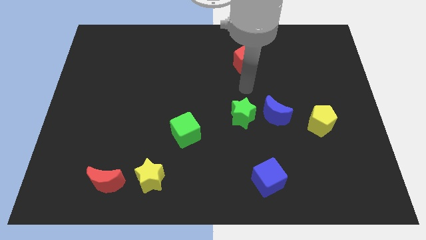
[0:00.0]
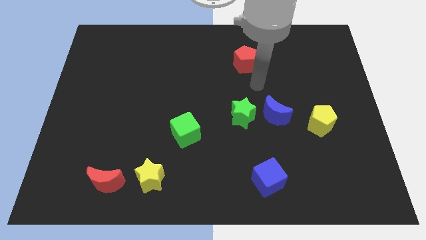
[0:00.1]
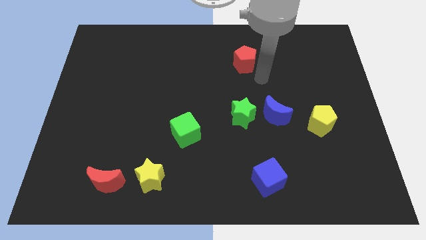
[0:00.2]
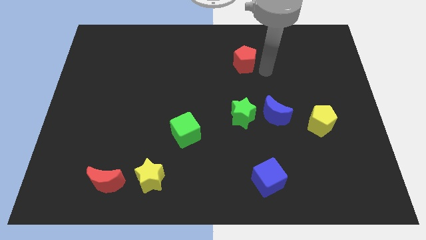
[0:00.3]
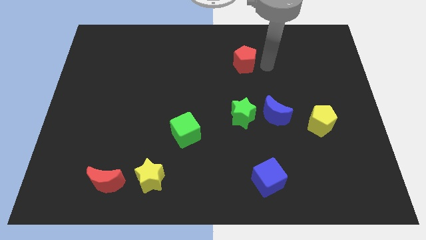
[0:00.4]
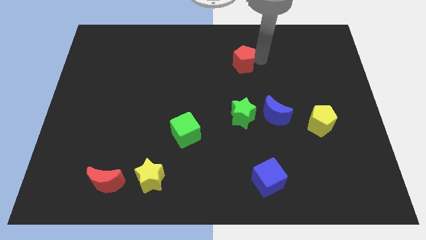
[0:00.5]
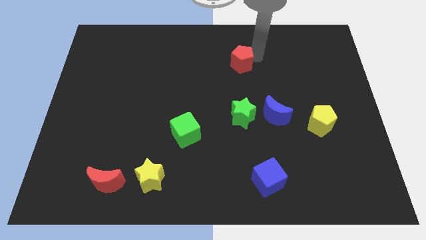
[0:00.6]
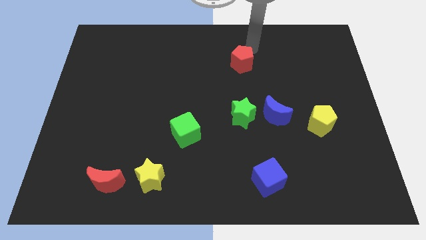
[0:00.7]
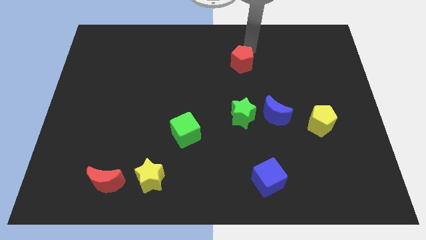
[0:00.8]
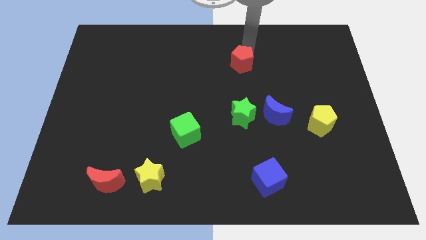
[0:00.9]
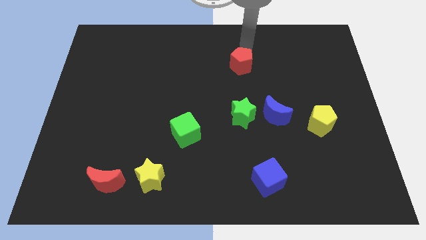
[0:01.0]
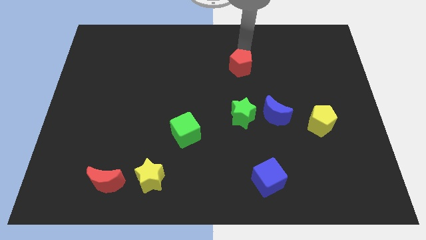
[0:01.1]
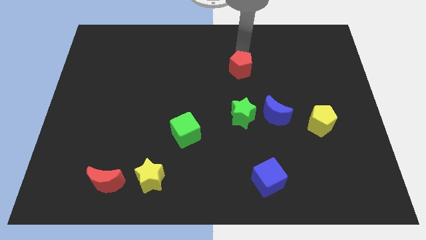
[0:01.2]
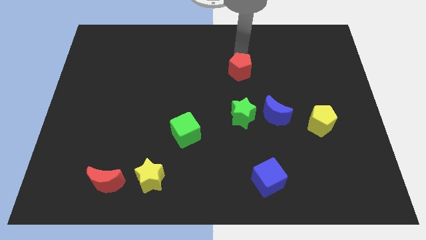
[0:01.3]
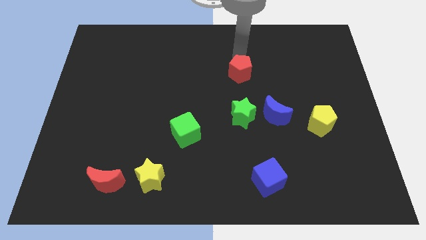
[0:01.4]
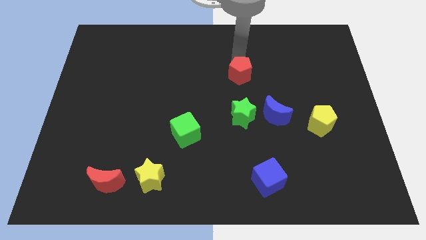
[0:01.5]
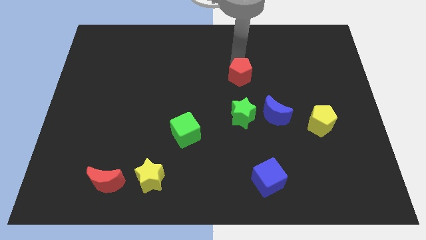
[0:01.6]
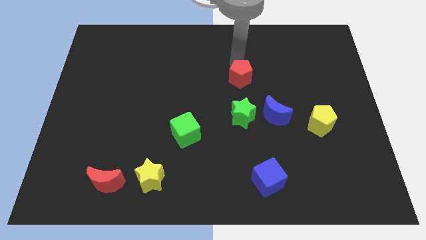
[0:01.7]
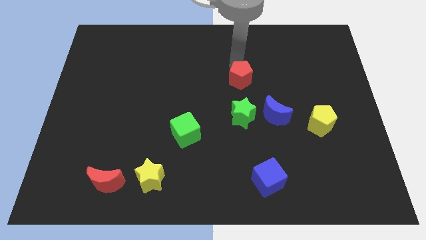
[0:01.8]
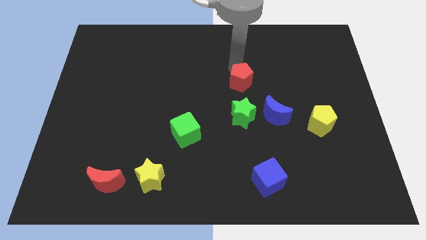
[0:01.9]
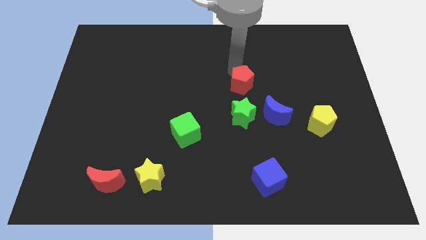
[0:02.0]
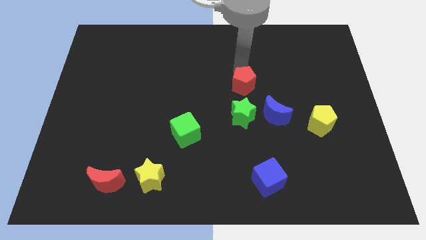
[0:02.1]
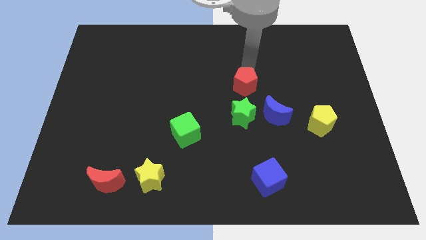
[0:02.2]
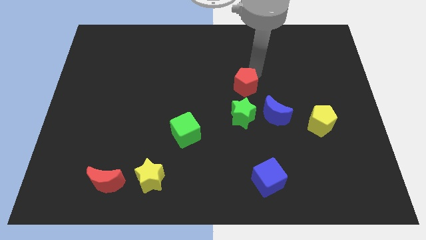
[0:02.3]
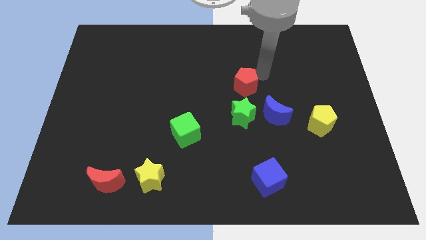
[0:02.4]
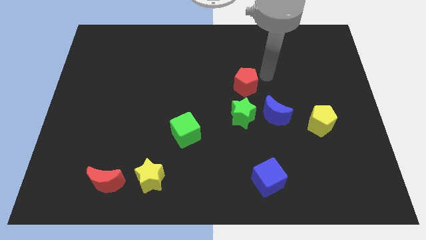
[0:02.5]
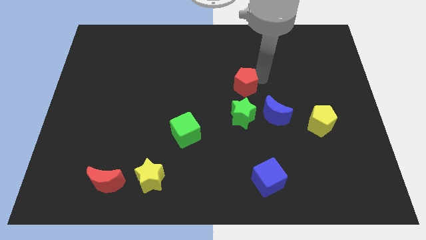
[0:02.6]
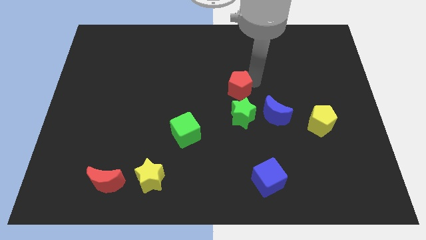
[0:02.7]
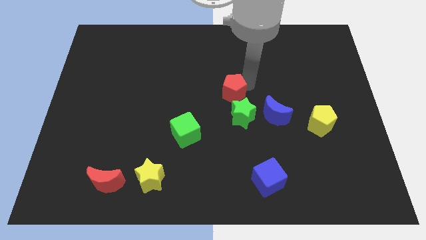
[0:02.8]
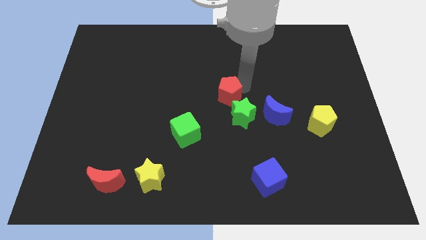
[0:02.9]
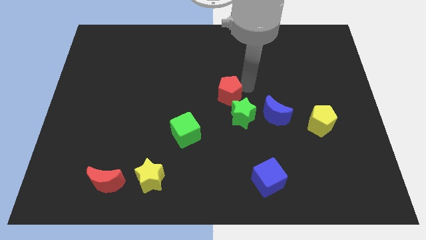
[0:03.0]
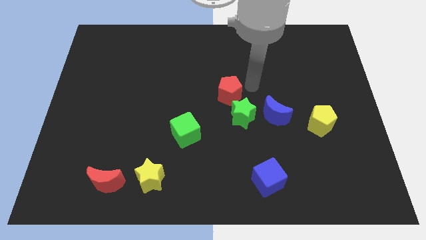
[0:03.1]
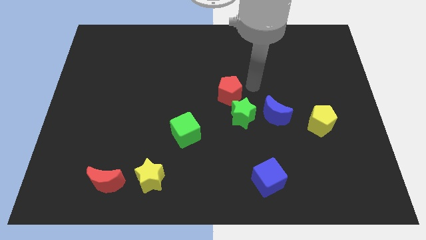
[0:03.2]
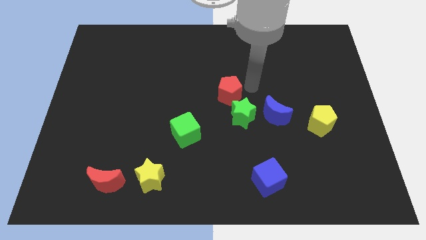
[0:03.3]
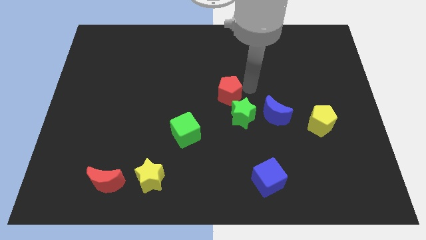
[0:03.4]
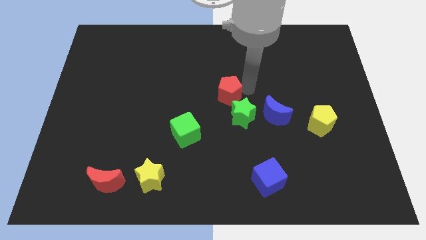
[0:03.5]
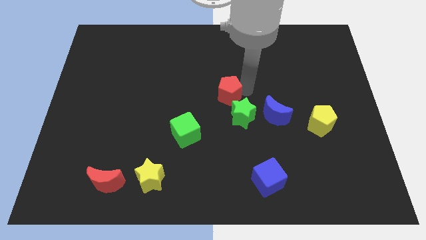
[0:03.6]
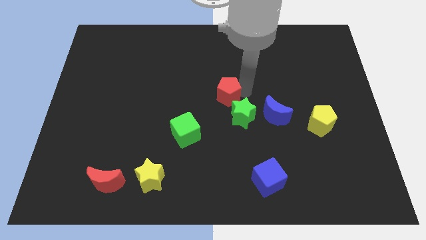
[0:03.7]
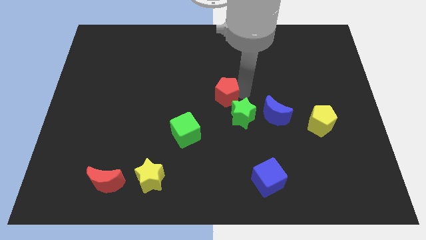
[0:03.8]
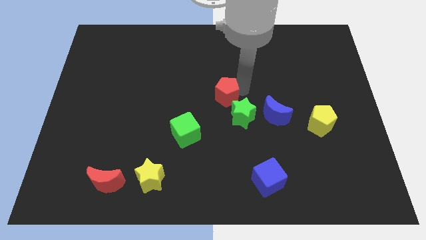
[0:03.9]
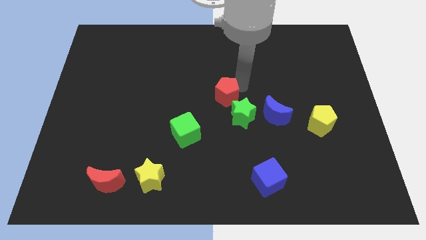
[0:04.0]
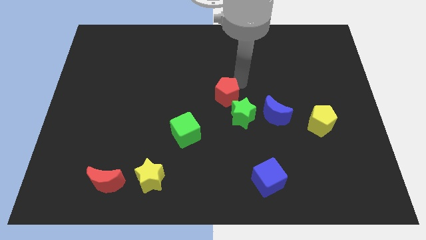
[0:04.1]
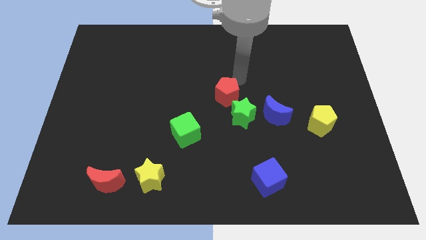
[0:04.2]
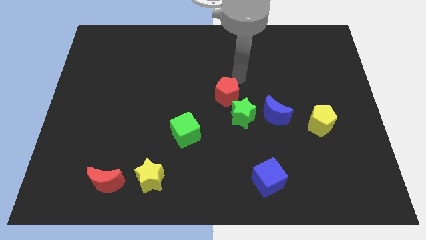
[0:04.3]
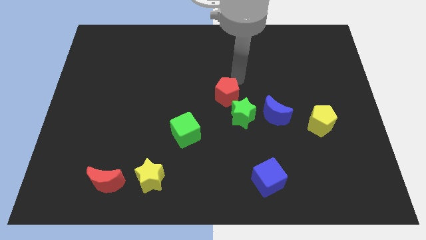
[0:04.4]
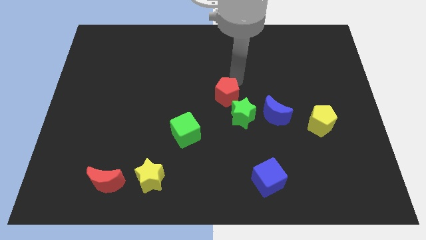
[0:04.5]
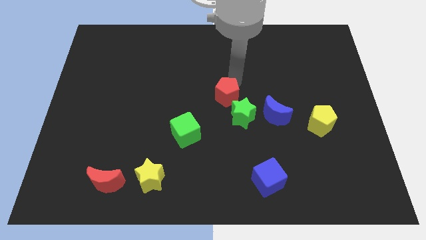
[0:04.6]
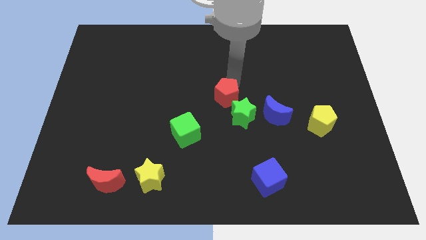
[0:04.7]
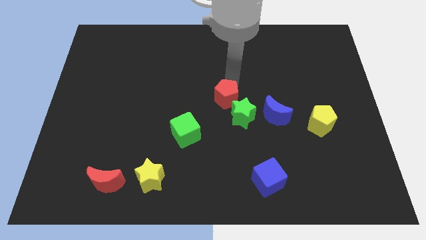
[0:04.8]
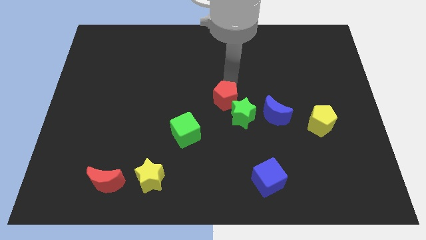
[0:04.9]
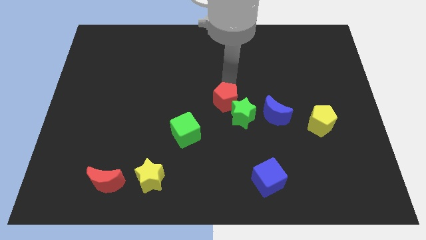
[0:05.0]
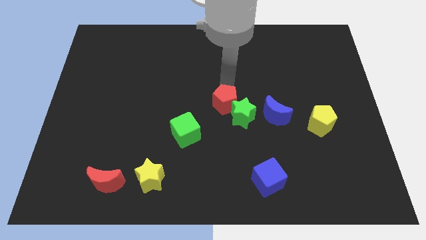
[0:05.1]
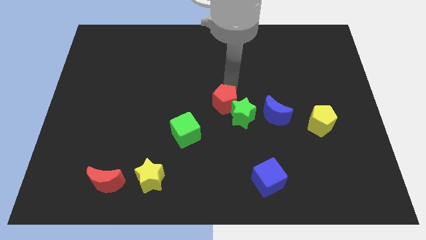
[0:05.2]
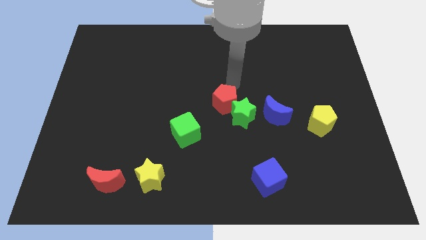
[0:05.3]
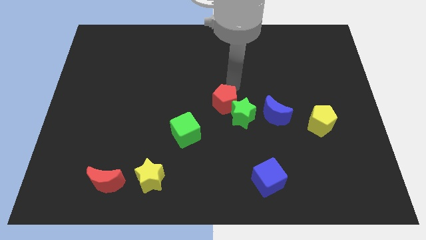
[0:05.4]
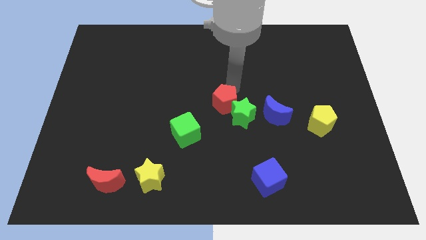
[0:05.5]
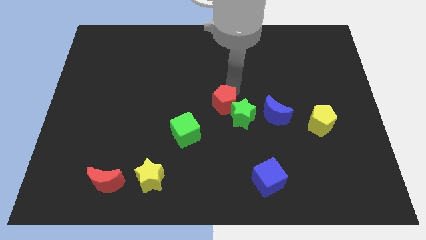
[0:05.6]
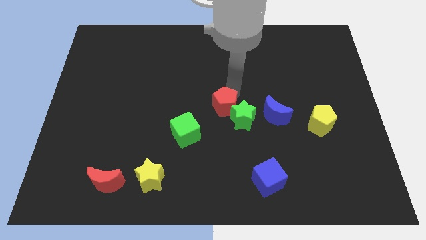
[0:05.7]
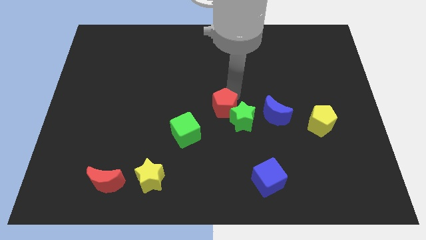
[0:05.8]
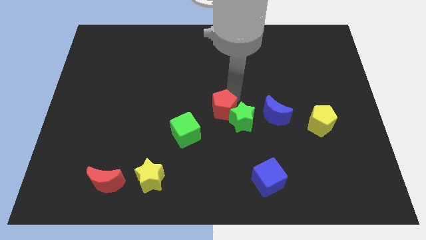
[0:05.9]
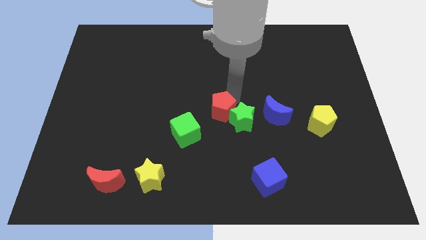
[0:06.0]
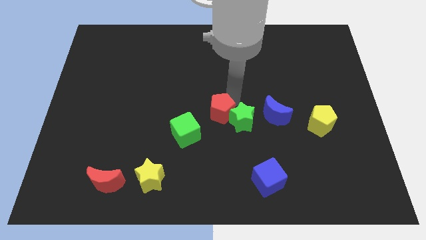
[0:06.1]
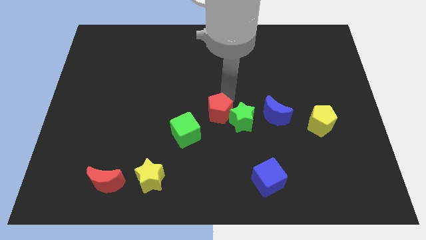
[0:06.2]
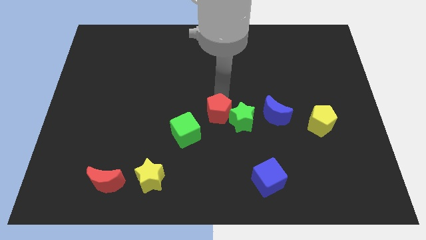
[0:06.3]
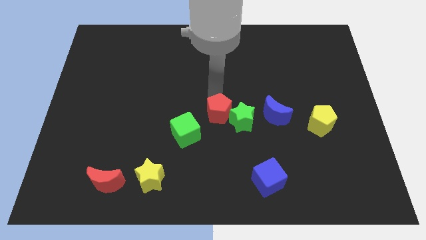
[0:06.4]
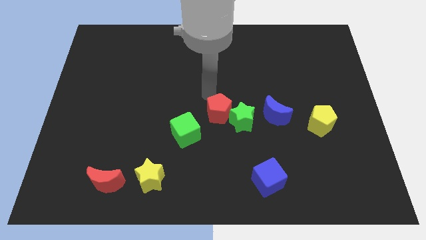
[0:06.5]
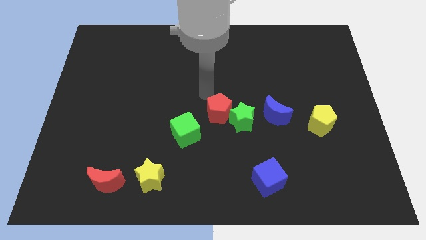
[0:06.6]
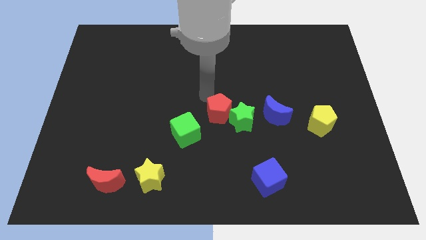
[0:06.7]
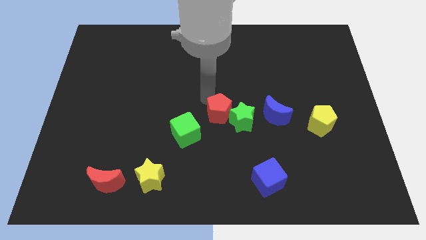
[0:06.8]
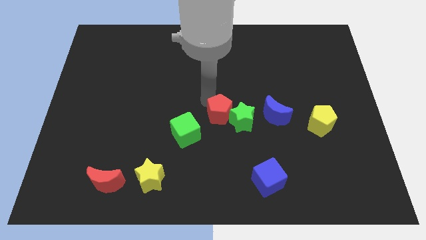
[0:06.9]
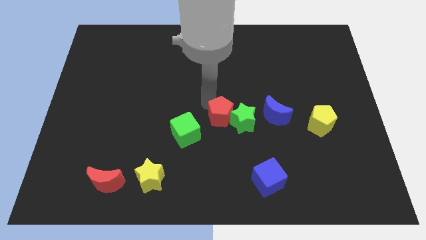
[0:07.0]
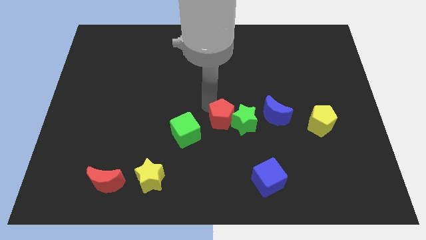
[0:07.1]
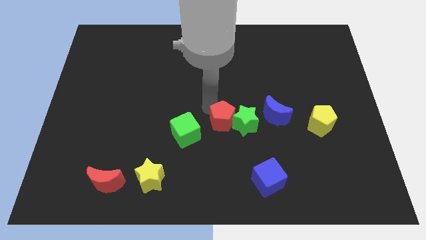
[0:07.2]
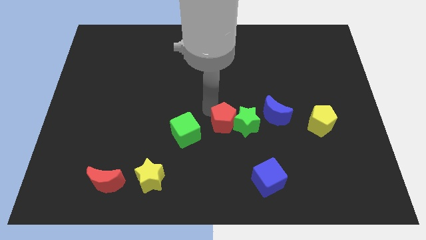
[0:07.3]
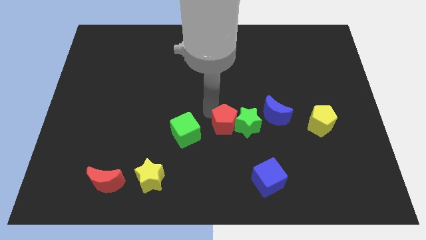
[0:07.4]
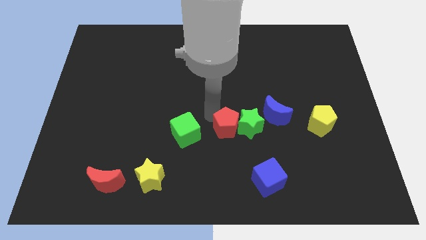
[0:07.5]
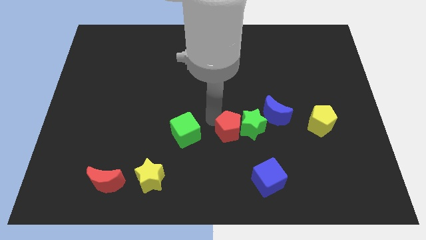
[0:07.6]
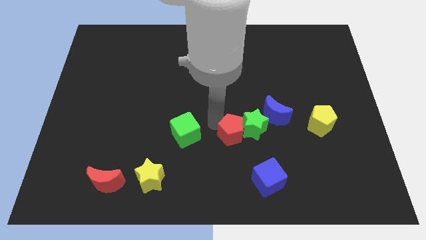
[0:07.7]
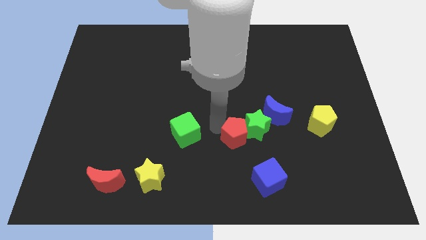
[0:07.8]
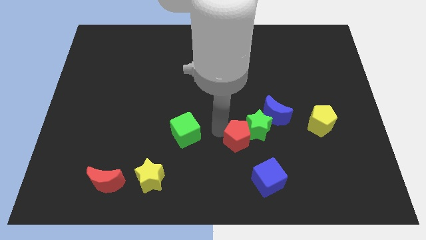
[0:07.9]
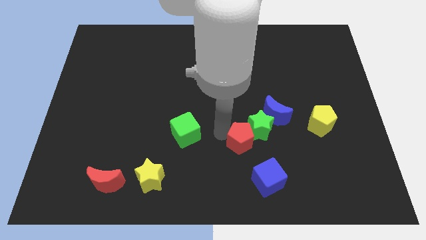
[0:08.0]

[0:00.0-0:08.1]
put the red pentagon to the bottom of the green star

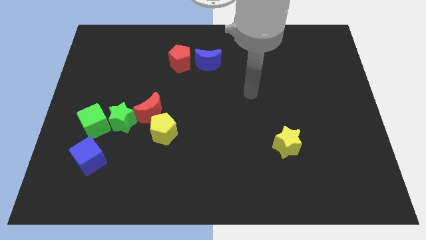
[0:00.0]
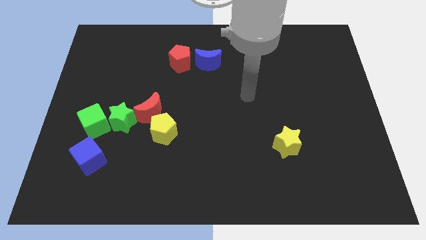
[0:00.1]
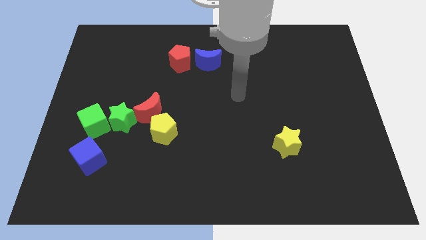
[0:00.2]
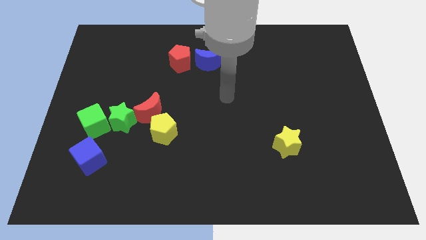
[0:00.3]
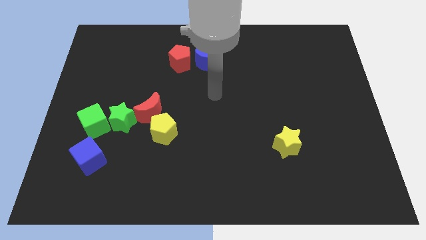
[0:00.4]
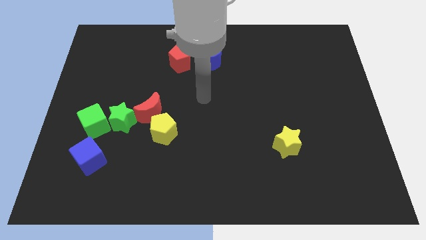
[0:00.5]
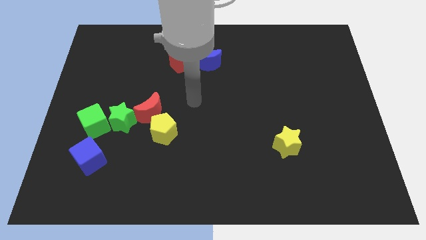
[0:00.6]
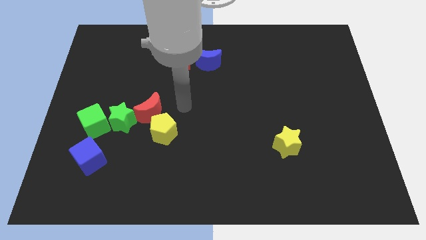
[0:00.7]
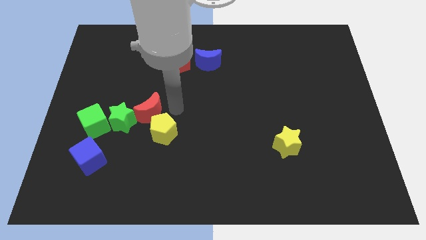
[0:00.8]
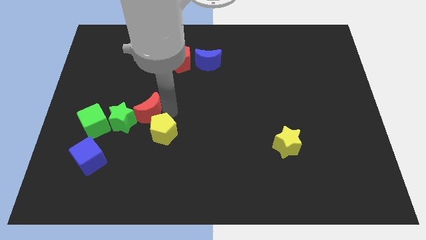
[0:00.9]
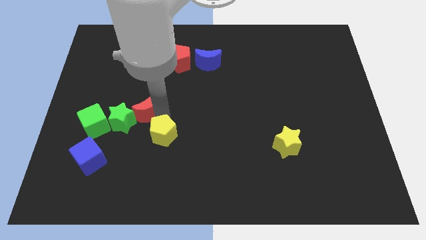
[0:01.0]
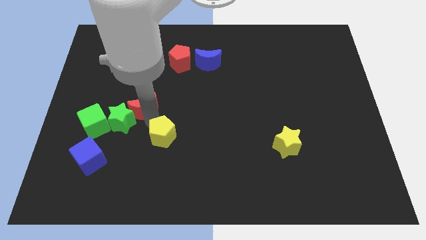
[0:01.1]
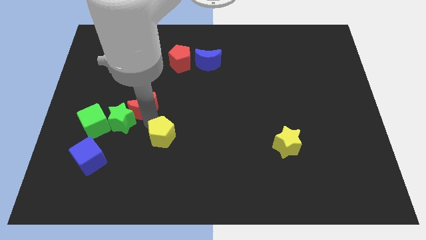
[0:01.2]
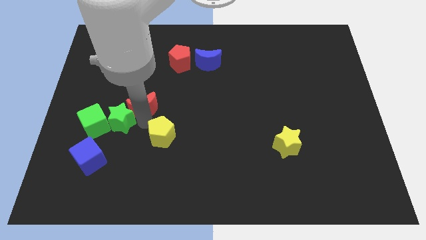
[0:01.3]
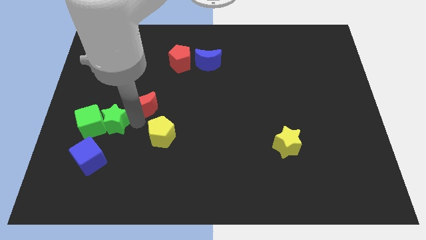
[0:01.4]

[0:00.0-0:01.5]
put the green star above the blue cube
